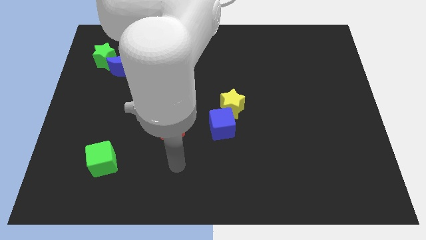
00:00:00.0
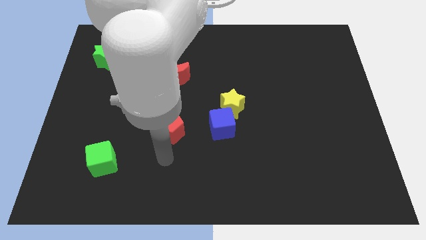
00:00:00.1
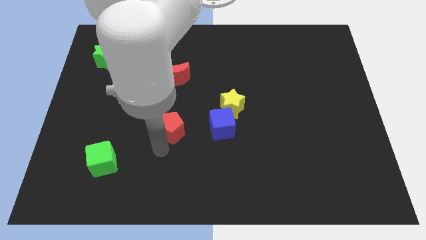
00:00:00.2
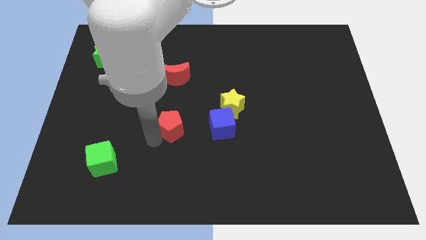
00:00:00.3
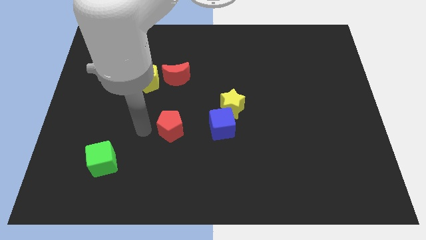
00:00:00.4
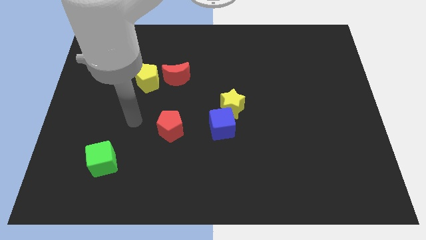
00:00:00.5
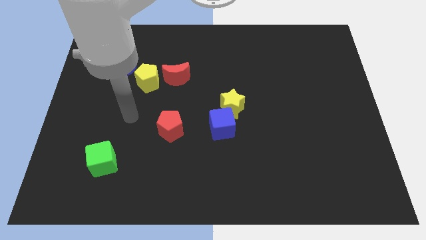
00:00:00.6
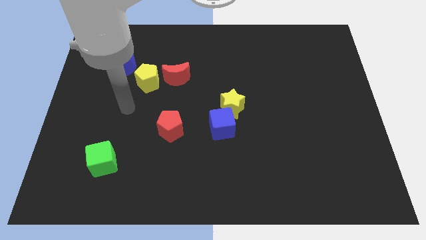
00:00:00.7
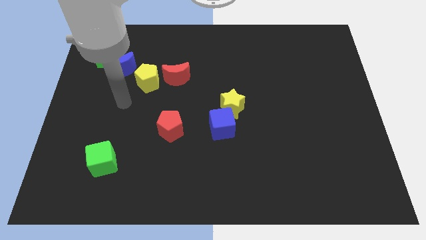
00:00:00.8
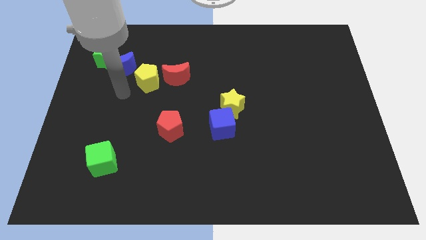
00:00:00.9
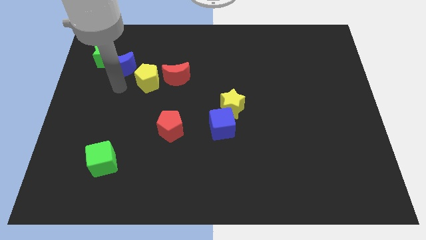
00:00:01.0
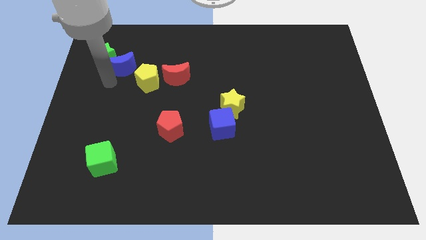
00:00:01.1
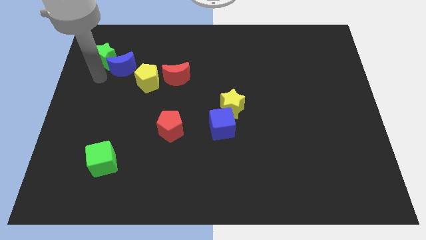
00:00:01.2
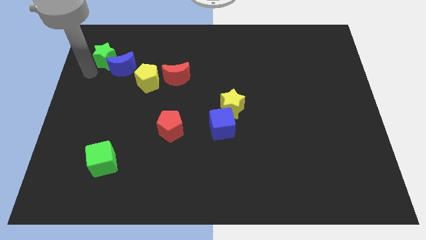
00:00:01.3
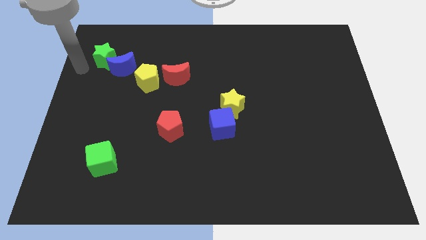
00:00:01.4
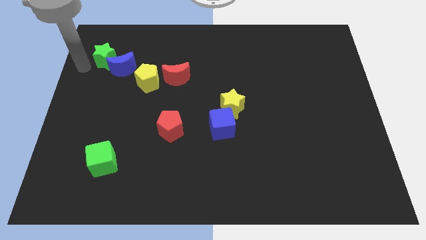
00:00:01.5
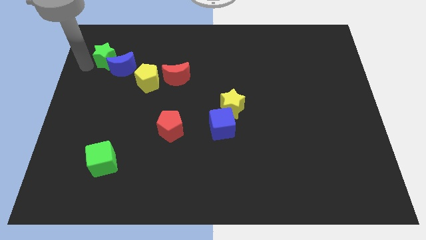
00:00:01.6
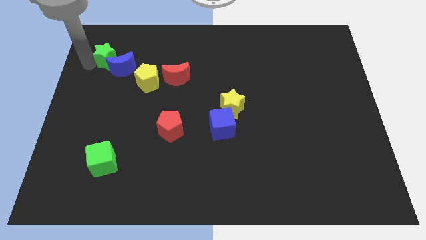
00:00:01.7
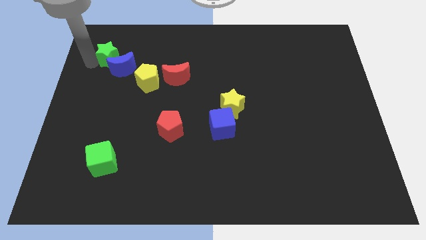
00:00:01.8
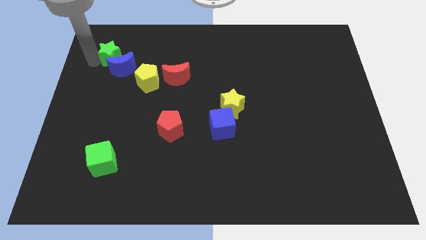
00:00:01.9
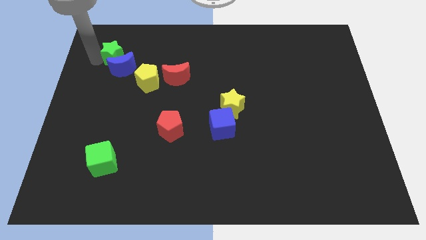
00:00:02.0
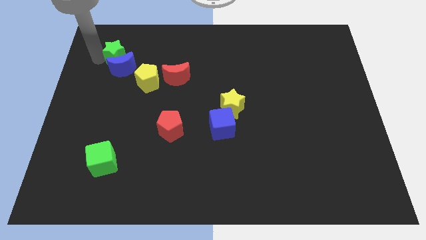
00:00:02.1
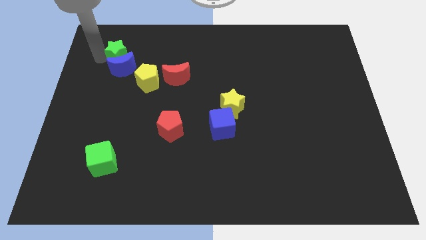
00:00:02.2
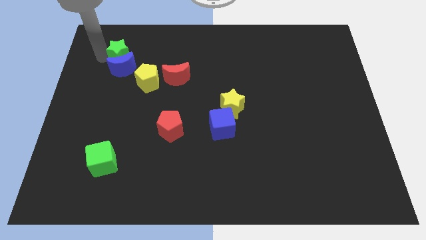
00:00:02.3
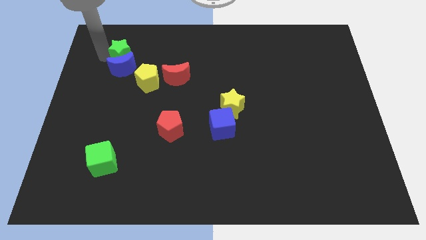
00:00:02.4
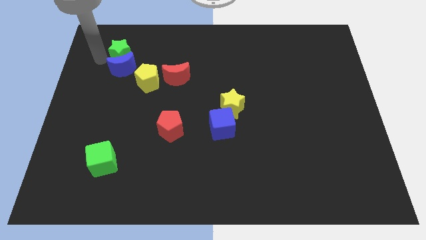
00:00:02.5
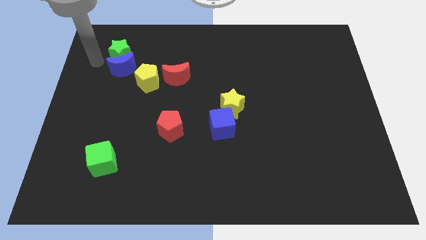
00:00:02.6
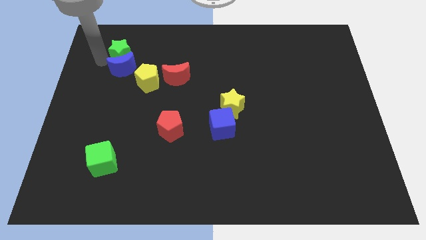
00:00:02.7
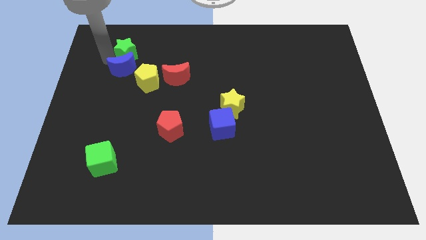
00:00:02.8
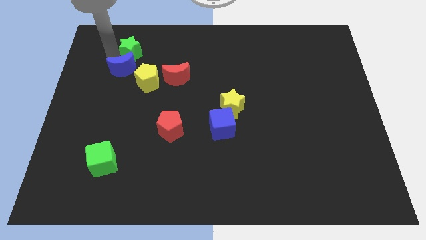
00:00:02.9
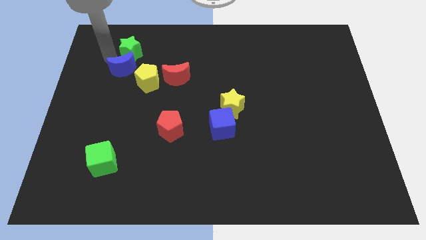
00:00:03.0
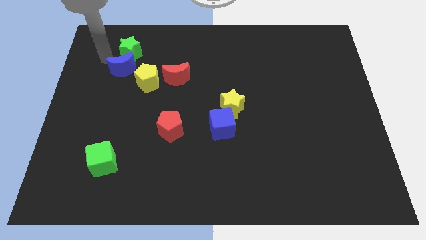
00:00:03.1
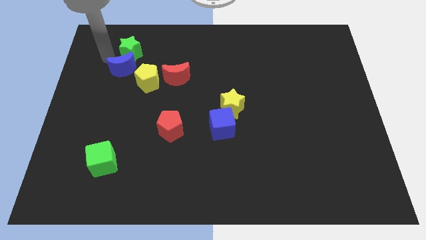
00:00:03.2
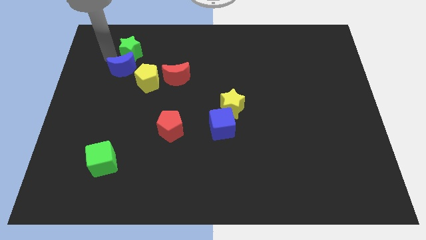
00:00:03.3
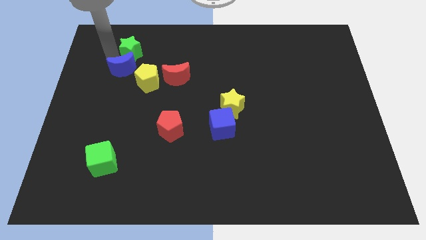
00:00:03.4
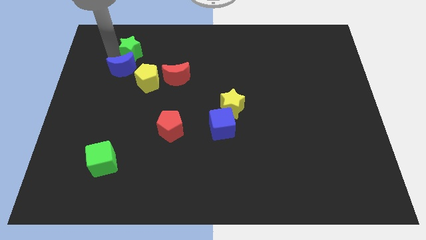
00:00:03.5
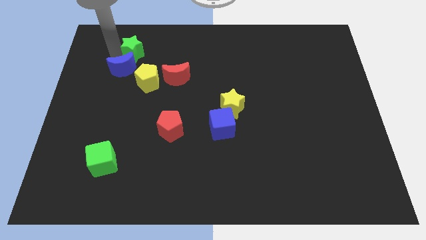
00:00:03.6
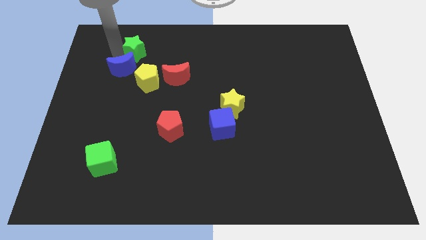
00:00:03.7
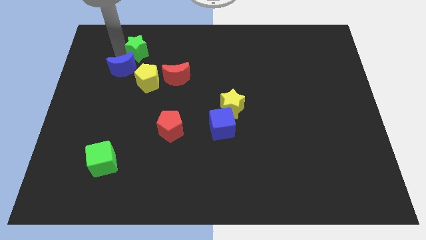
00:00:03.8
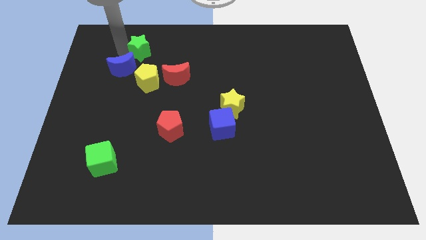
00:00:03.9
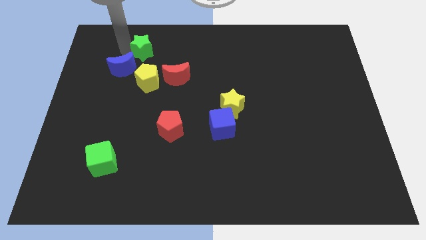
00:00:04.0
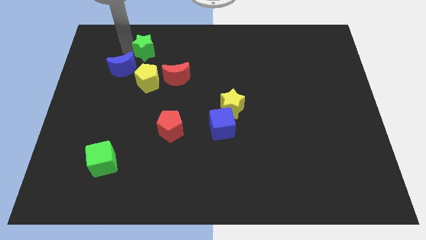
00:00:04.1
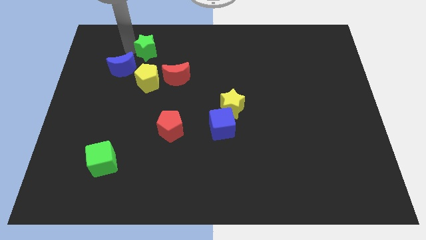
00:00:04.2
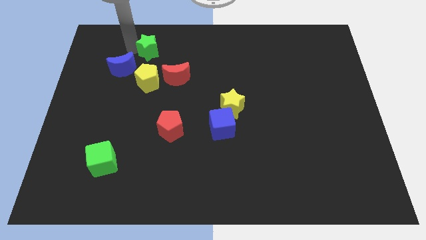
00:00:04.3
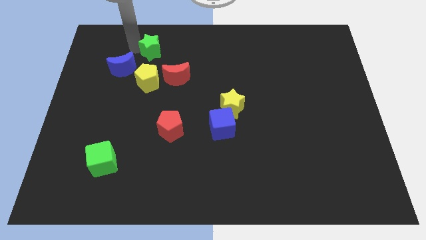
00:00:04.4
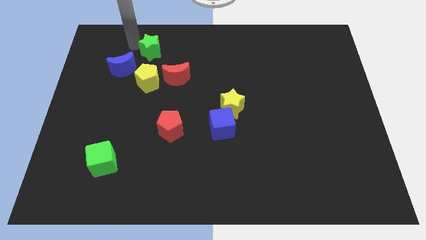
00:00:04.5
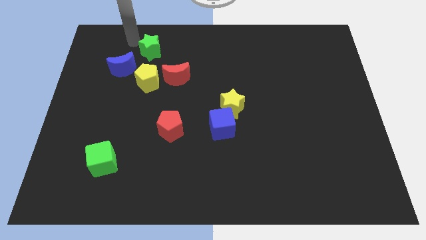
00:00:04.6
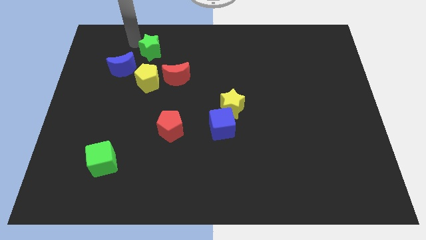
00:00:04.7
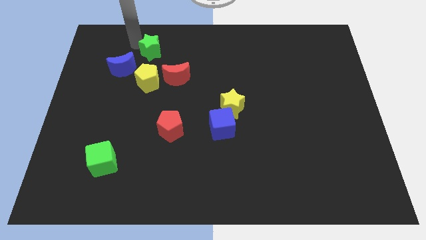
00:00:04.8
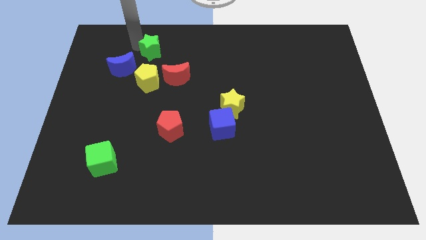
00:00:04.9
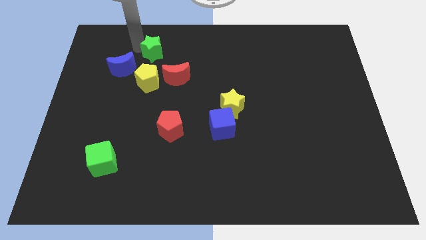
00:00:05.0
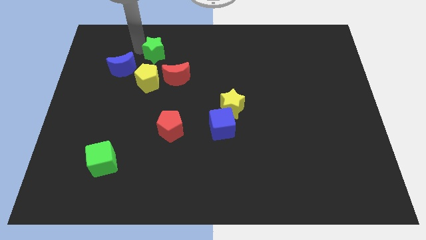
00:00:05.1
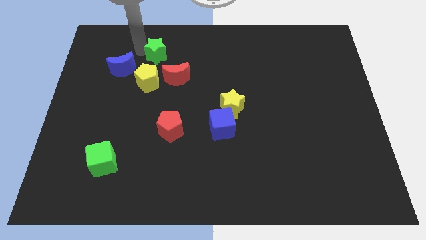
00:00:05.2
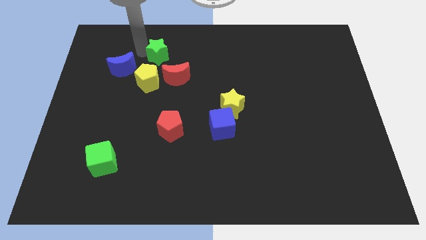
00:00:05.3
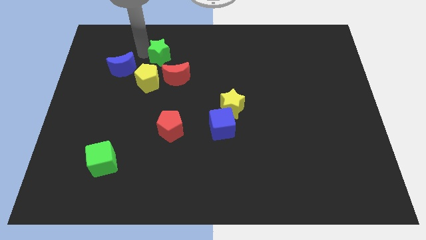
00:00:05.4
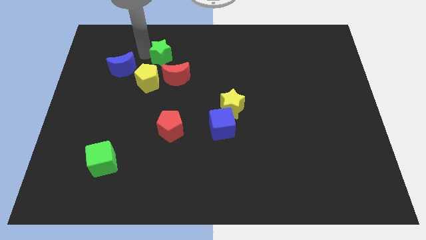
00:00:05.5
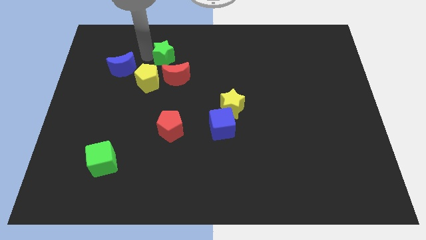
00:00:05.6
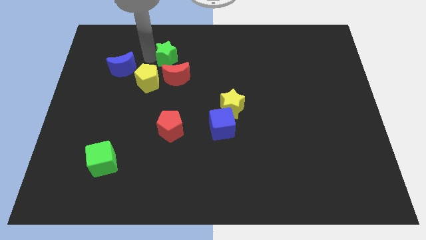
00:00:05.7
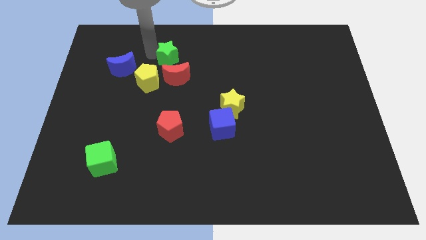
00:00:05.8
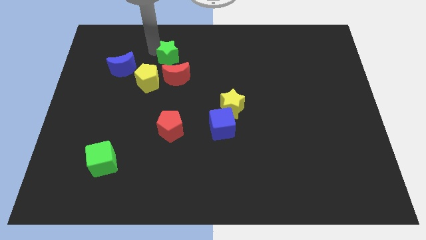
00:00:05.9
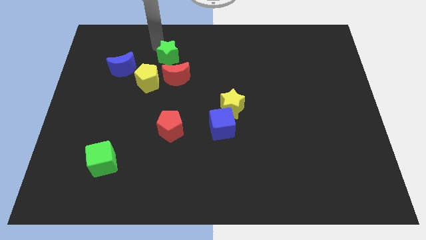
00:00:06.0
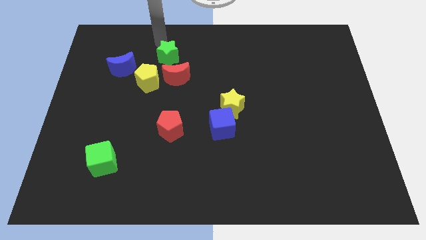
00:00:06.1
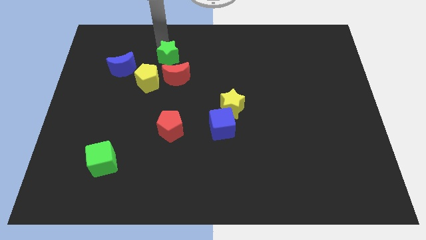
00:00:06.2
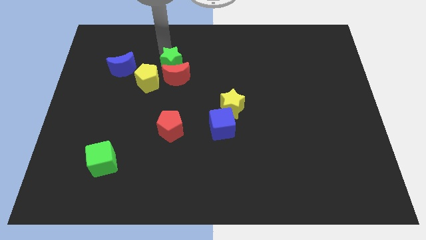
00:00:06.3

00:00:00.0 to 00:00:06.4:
push the green star to the red moon

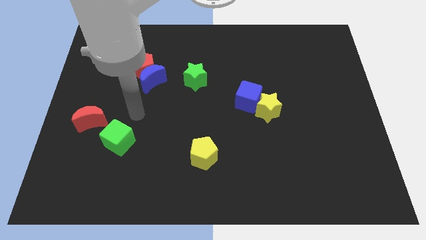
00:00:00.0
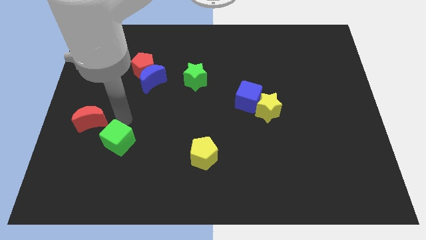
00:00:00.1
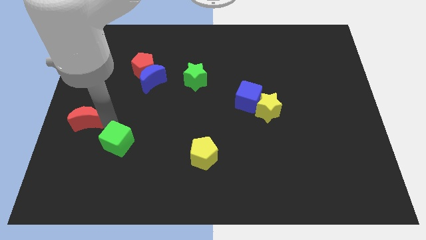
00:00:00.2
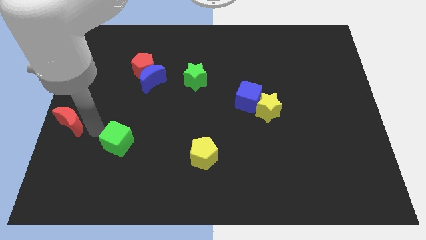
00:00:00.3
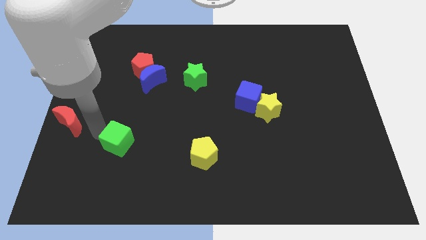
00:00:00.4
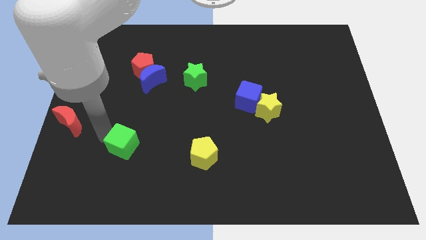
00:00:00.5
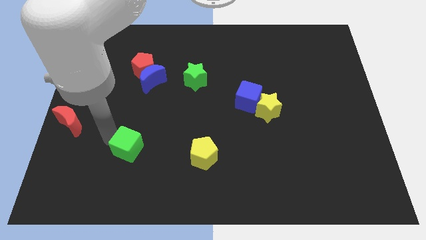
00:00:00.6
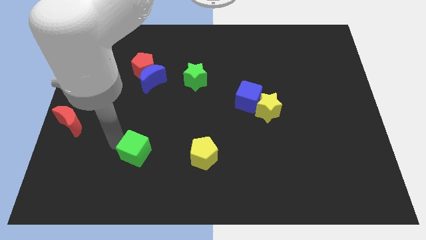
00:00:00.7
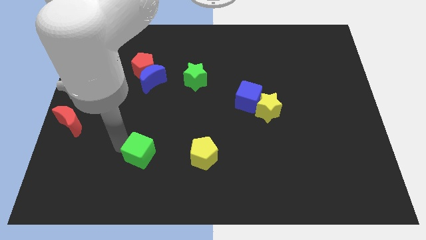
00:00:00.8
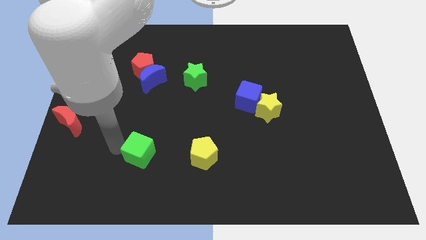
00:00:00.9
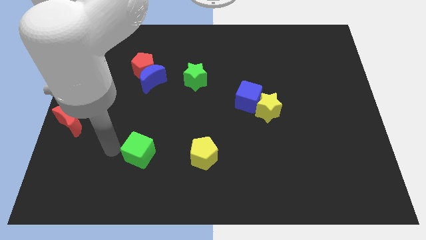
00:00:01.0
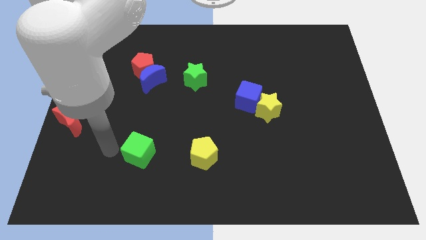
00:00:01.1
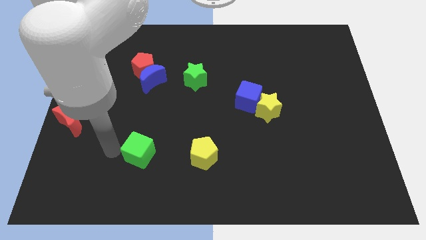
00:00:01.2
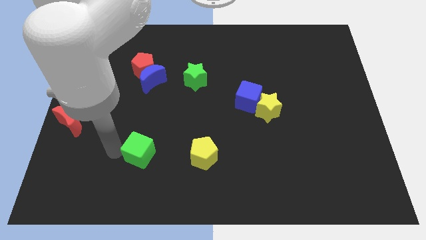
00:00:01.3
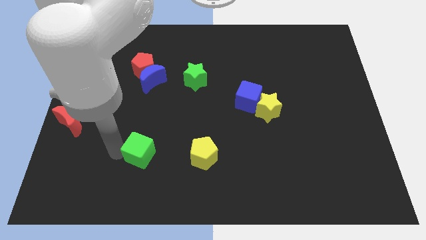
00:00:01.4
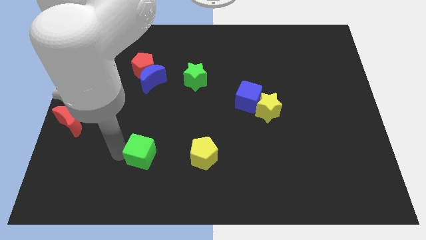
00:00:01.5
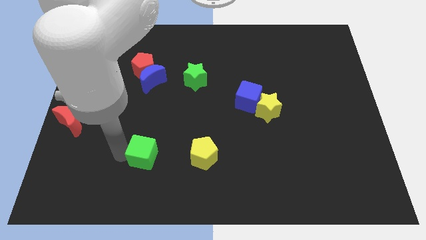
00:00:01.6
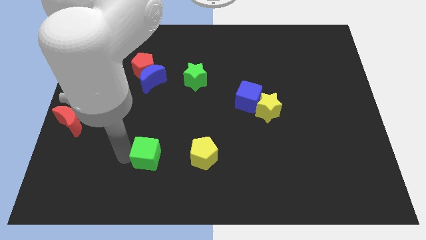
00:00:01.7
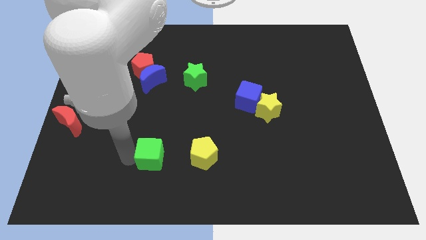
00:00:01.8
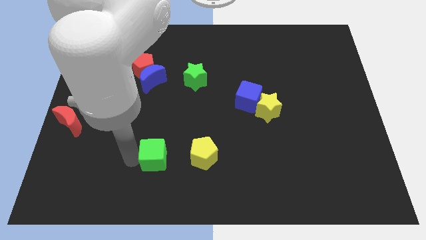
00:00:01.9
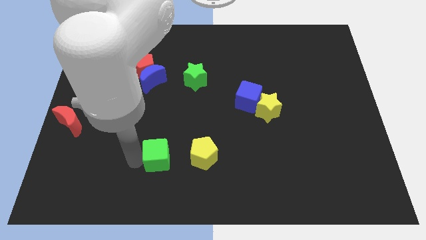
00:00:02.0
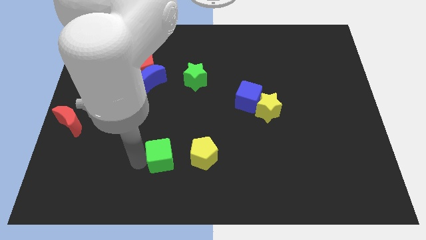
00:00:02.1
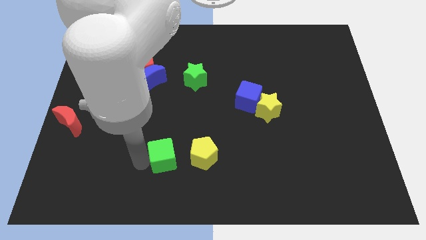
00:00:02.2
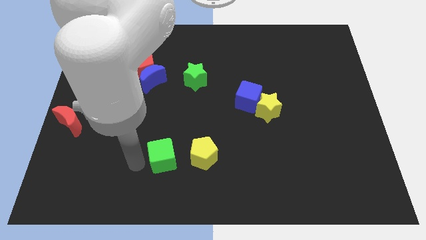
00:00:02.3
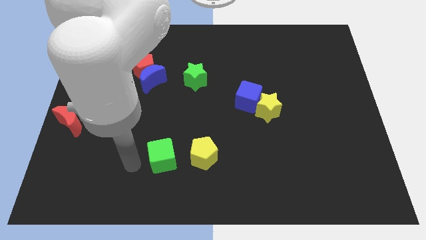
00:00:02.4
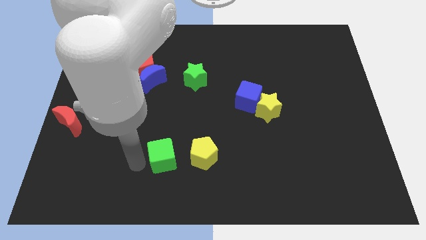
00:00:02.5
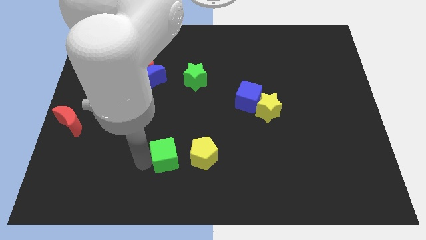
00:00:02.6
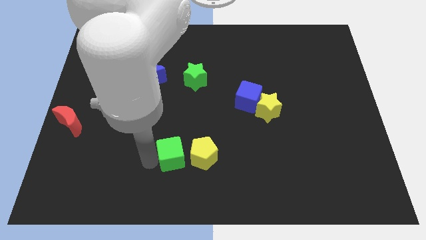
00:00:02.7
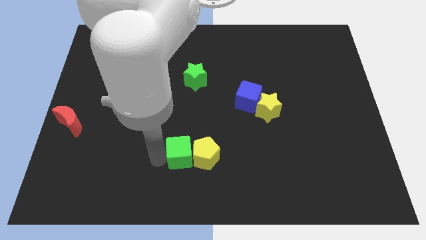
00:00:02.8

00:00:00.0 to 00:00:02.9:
push the green cube next to the yellow pentagon
